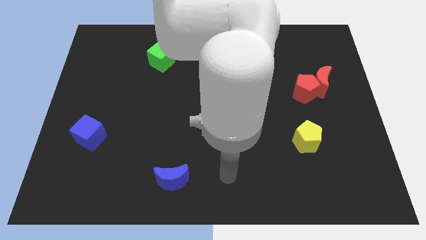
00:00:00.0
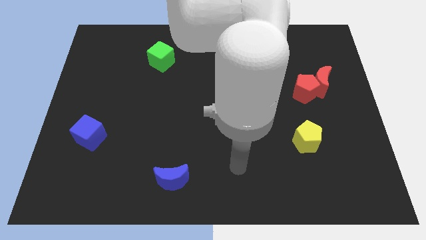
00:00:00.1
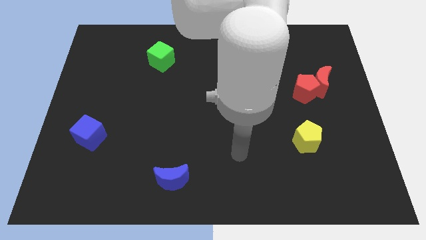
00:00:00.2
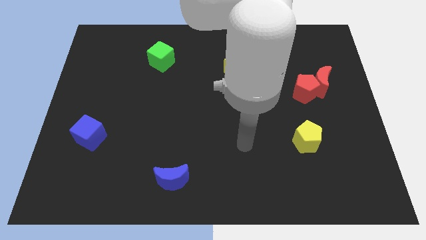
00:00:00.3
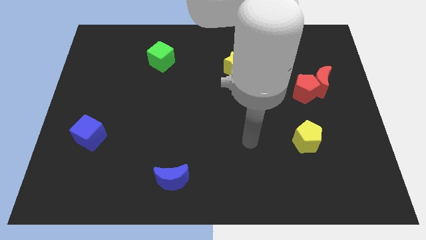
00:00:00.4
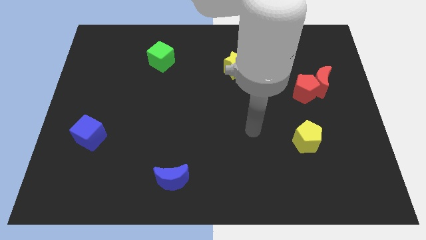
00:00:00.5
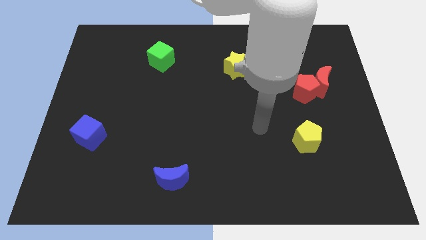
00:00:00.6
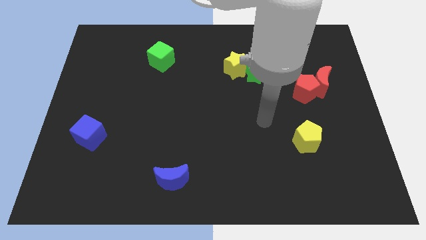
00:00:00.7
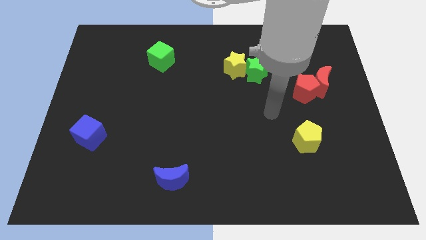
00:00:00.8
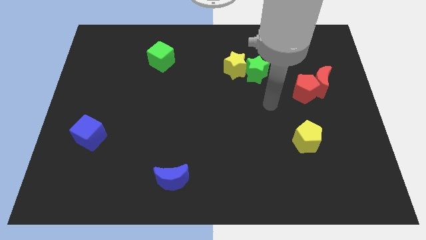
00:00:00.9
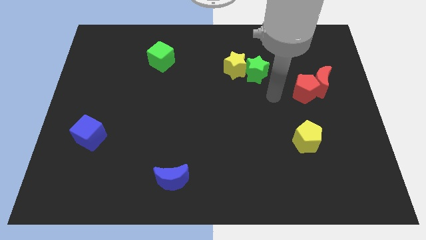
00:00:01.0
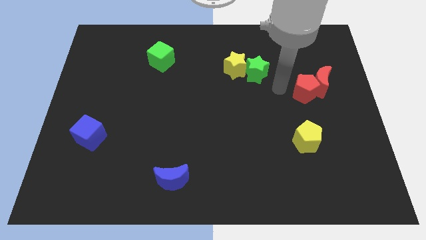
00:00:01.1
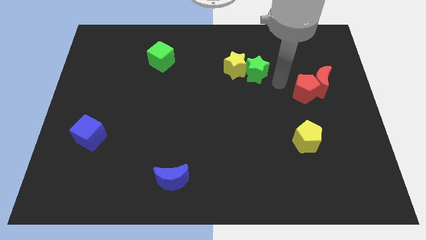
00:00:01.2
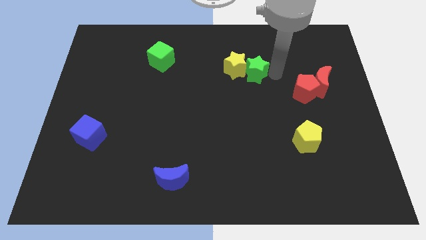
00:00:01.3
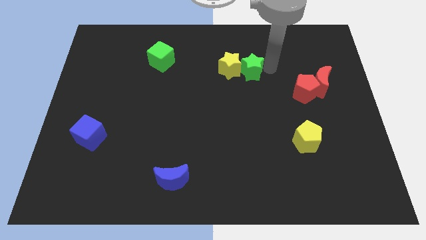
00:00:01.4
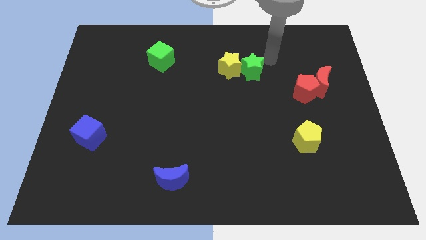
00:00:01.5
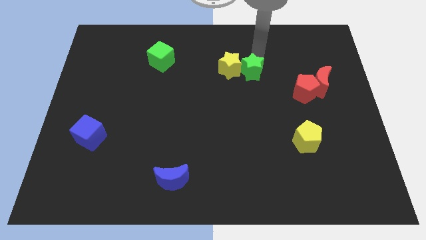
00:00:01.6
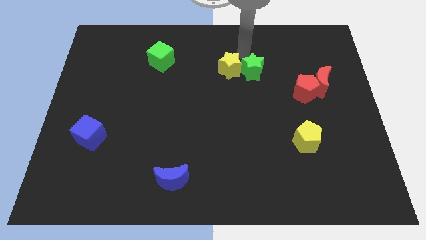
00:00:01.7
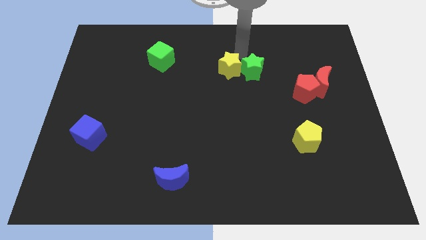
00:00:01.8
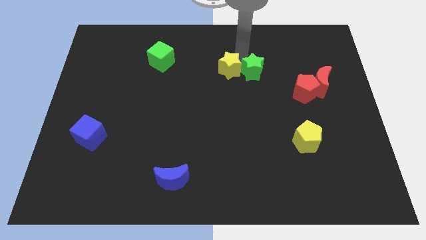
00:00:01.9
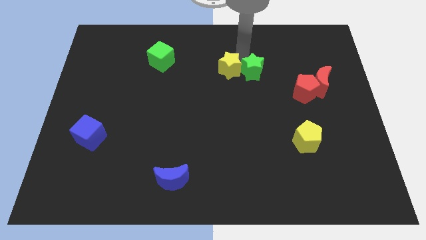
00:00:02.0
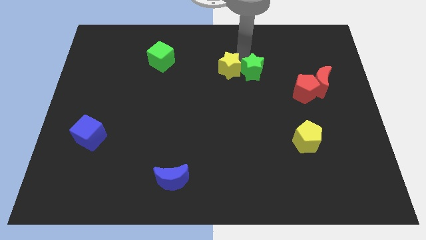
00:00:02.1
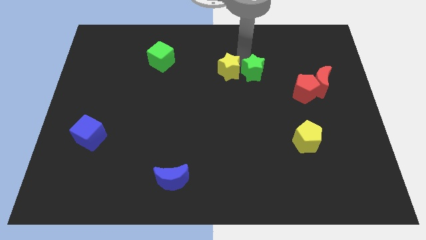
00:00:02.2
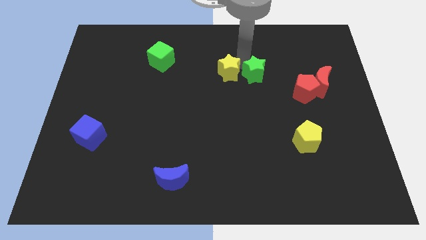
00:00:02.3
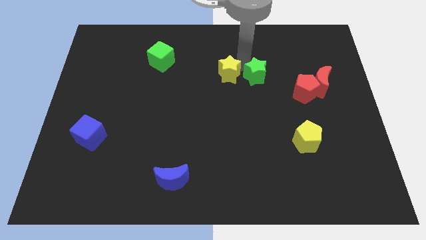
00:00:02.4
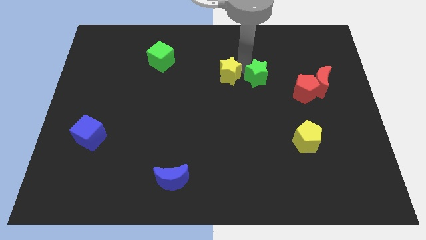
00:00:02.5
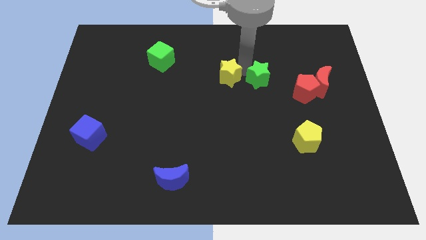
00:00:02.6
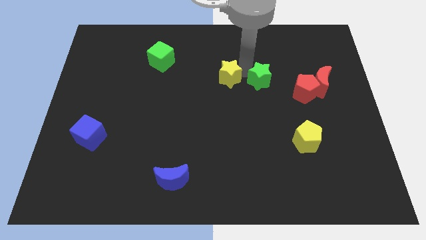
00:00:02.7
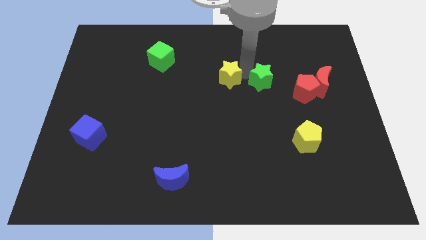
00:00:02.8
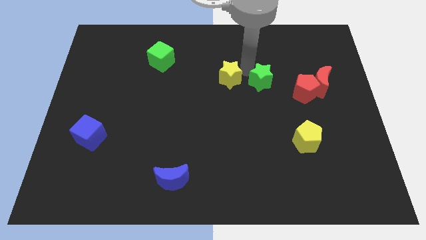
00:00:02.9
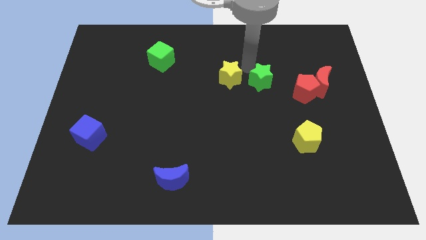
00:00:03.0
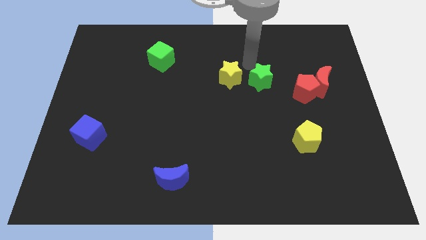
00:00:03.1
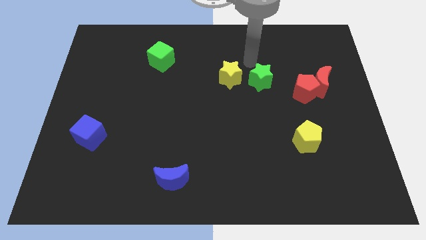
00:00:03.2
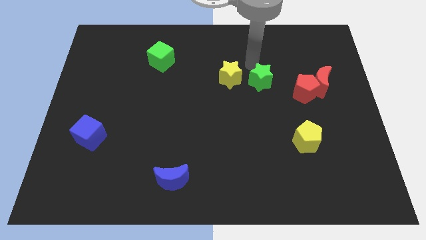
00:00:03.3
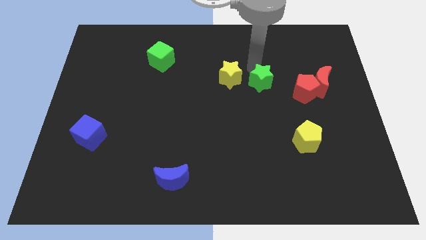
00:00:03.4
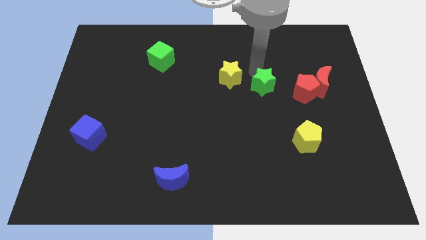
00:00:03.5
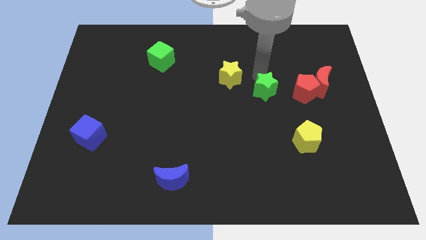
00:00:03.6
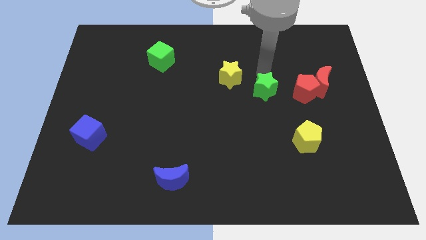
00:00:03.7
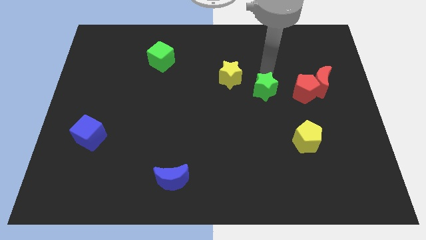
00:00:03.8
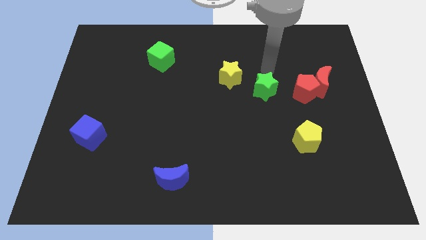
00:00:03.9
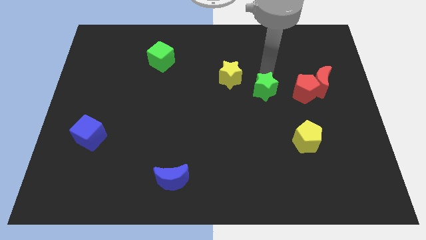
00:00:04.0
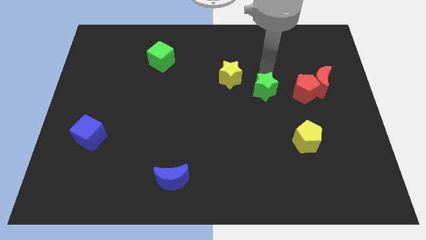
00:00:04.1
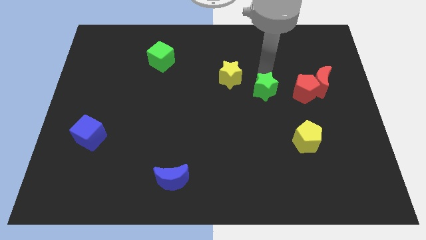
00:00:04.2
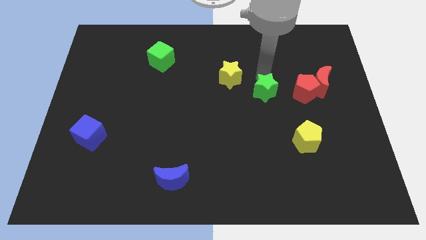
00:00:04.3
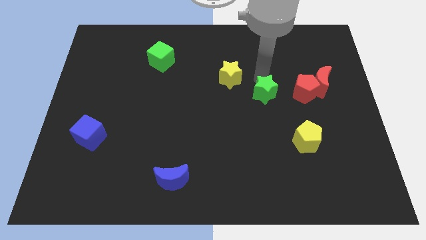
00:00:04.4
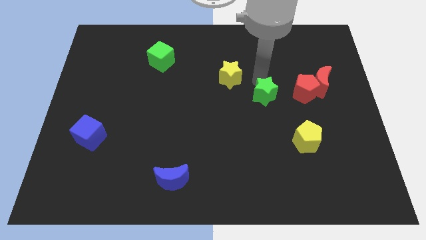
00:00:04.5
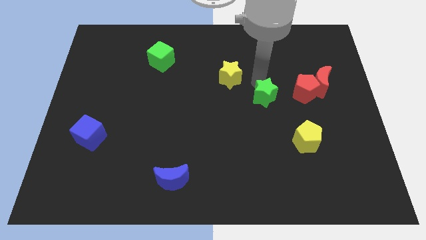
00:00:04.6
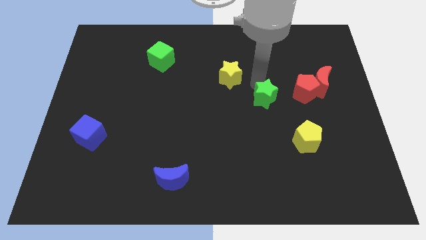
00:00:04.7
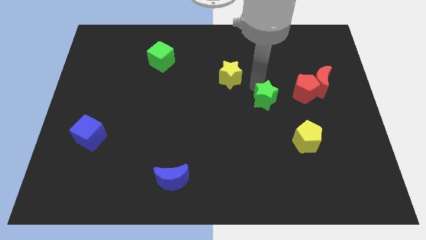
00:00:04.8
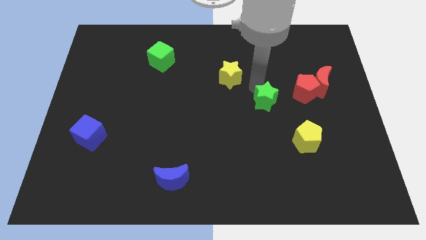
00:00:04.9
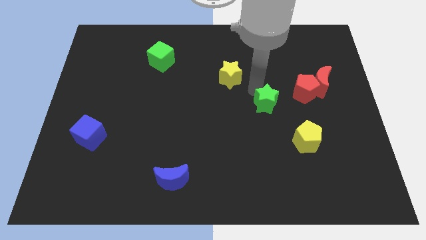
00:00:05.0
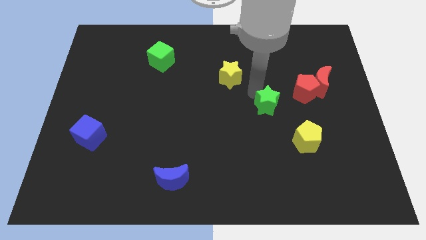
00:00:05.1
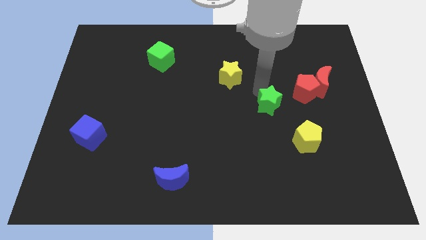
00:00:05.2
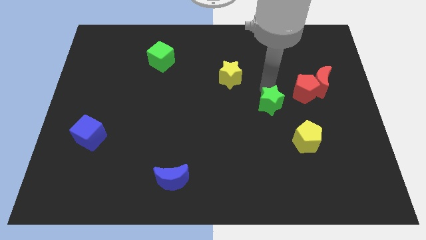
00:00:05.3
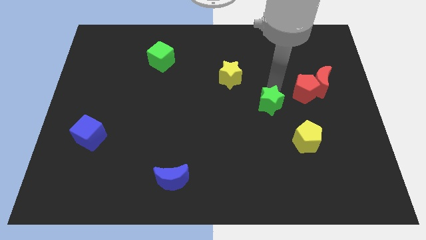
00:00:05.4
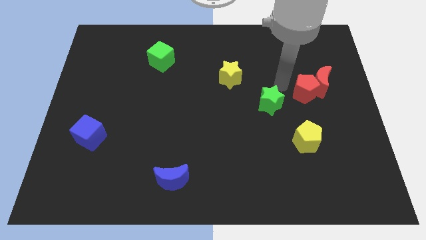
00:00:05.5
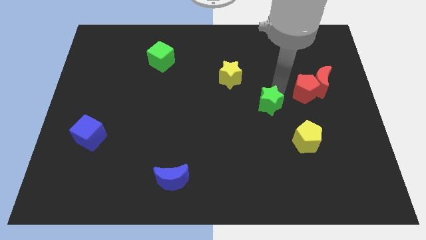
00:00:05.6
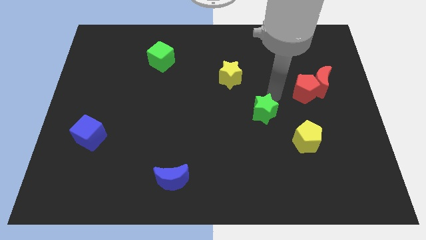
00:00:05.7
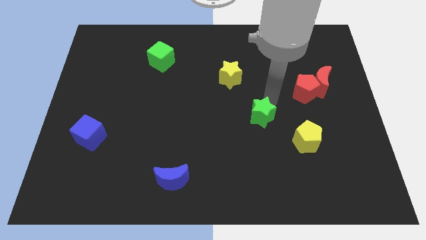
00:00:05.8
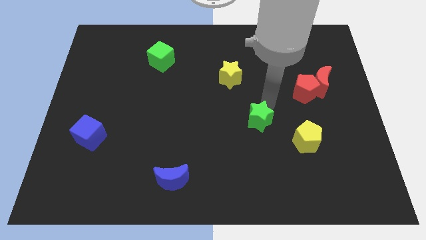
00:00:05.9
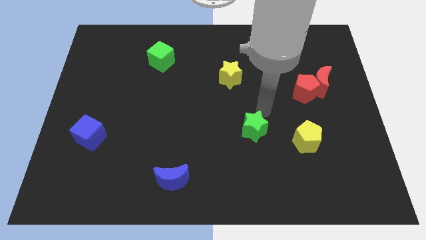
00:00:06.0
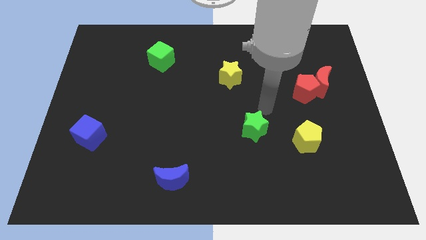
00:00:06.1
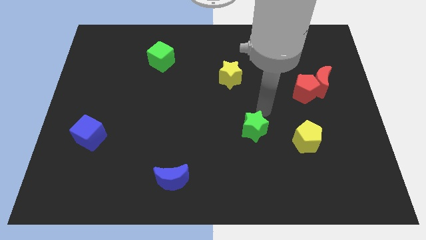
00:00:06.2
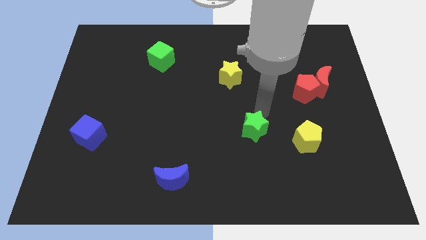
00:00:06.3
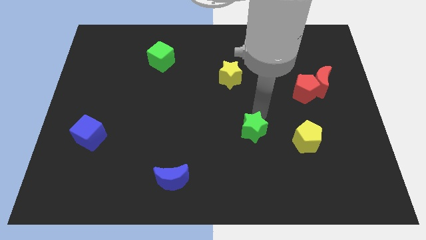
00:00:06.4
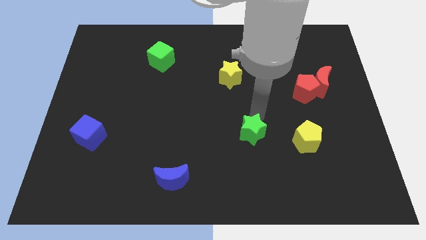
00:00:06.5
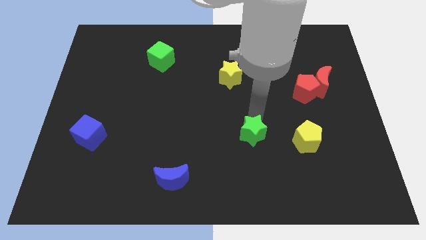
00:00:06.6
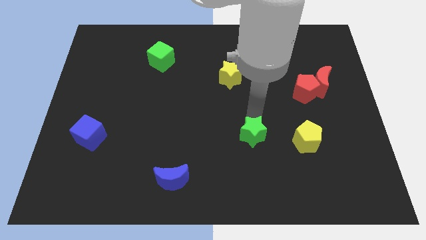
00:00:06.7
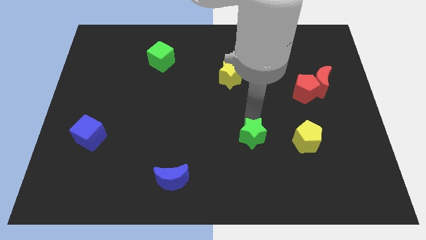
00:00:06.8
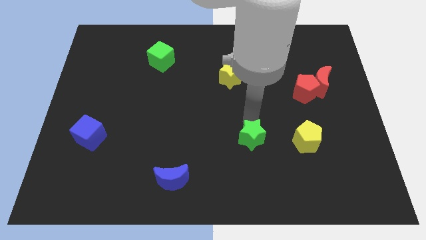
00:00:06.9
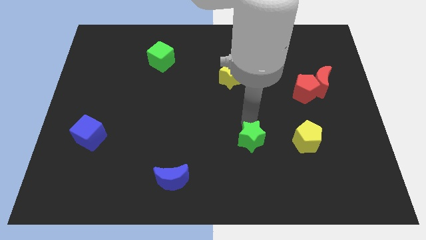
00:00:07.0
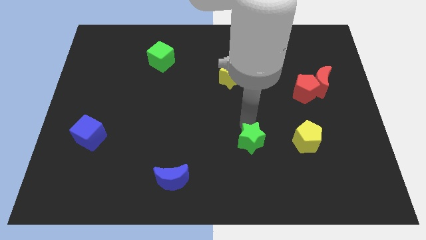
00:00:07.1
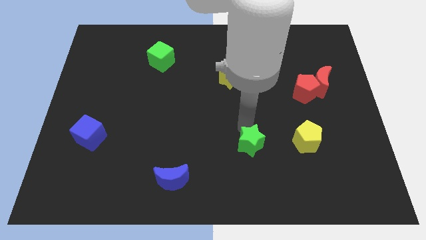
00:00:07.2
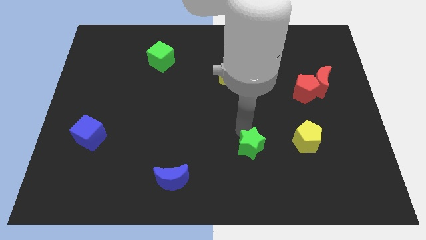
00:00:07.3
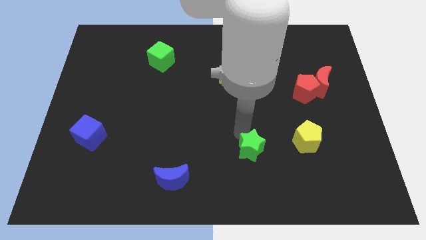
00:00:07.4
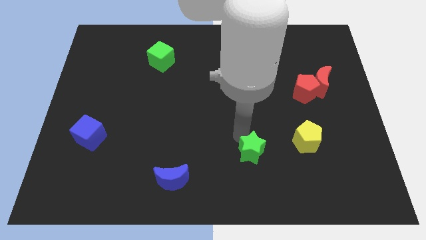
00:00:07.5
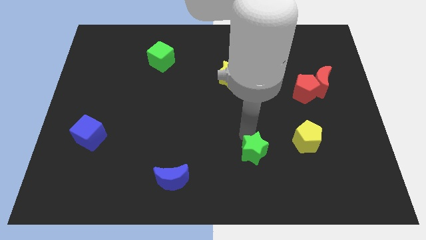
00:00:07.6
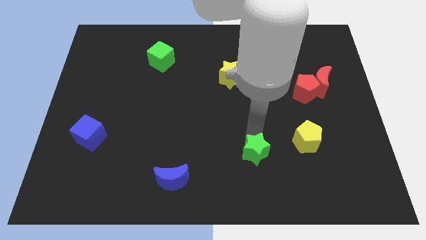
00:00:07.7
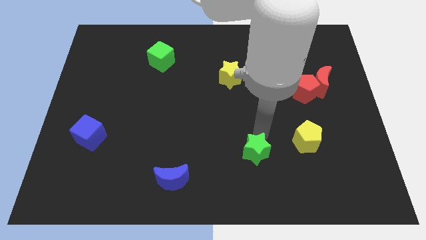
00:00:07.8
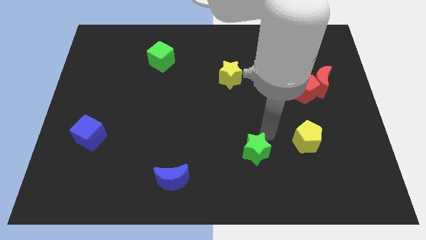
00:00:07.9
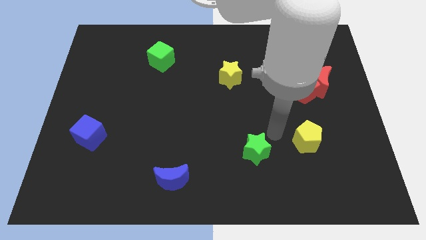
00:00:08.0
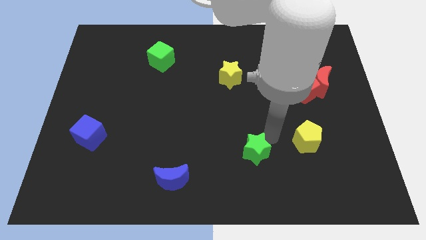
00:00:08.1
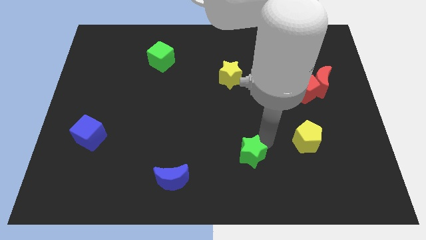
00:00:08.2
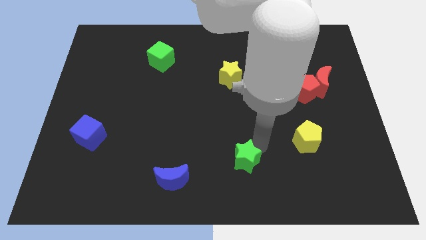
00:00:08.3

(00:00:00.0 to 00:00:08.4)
move the green star to the bottom
